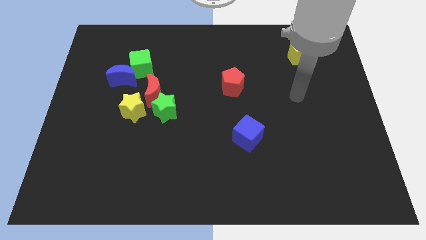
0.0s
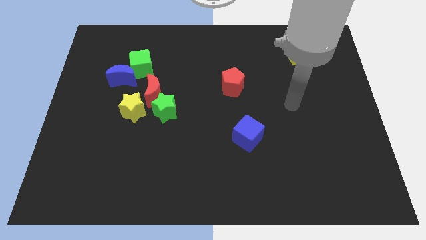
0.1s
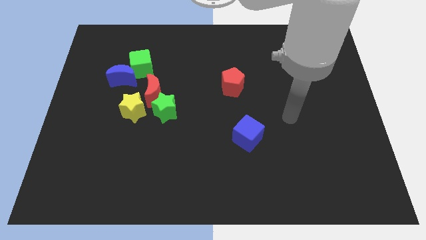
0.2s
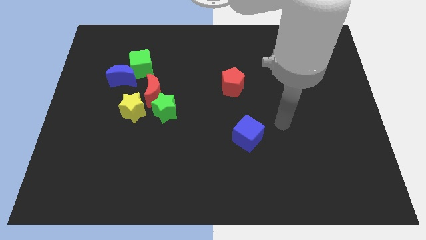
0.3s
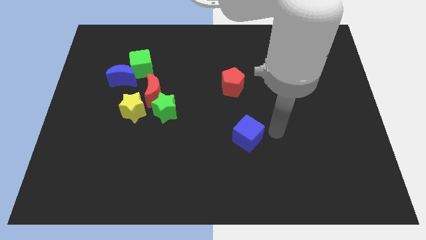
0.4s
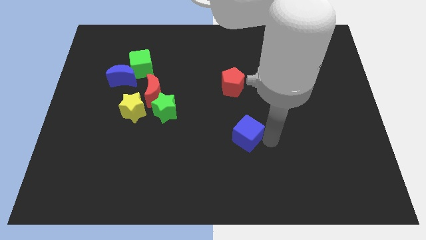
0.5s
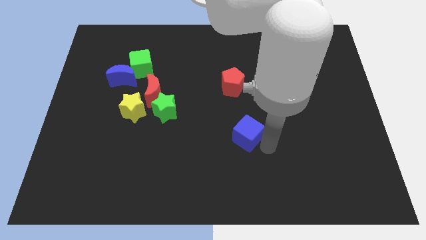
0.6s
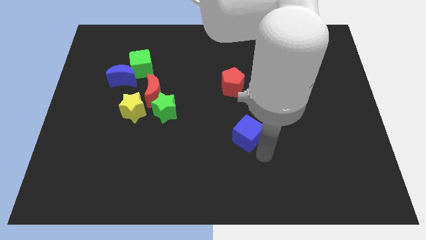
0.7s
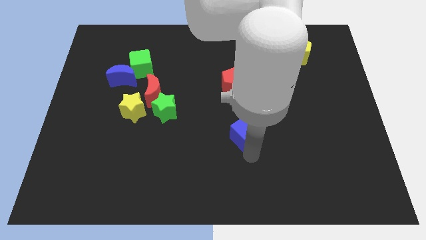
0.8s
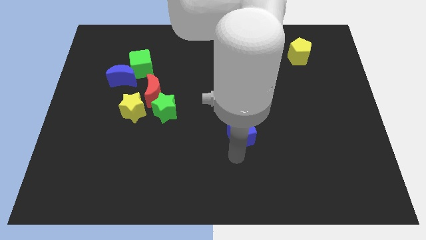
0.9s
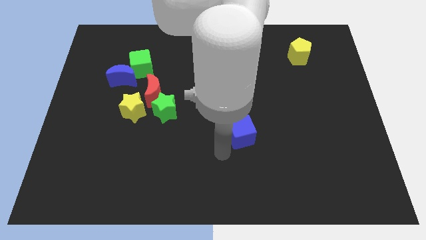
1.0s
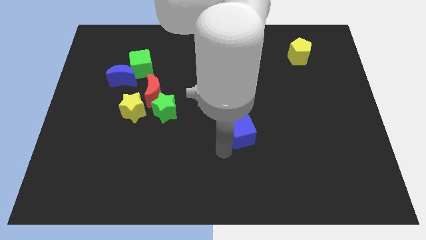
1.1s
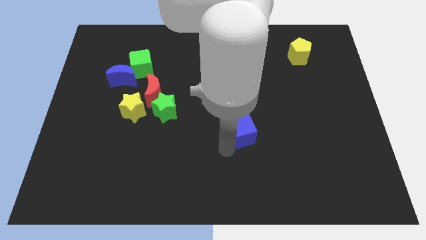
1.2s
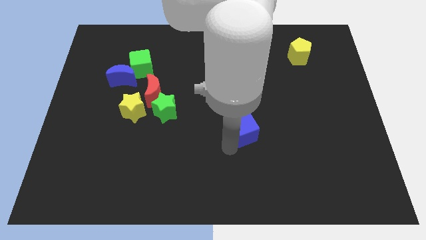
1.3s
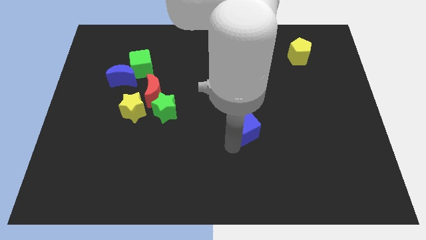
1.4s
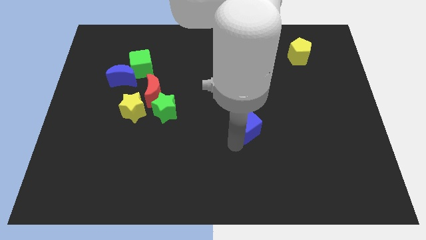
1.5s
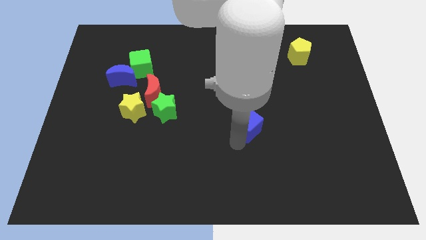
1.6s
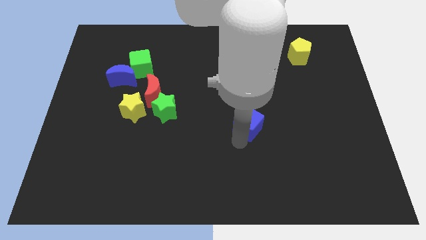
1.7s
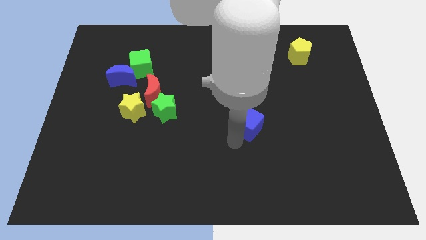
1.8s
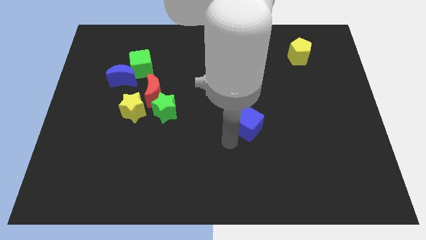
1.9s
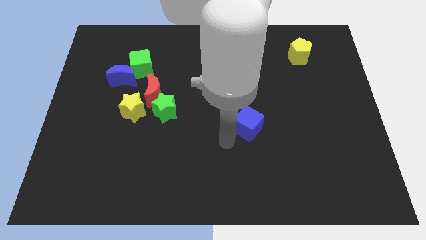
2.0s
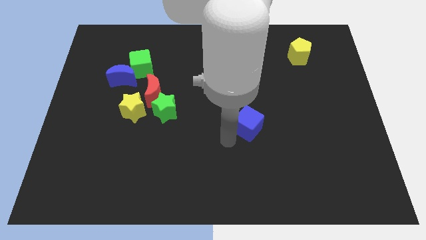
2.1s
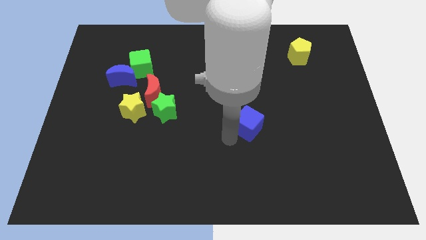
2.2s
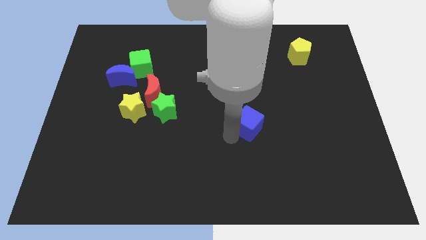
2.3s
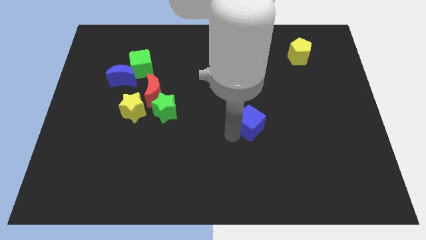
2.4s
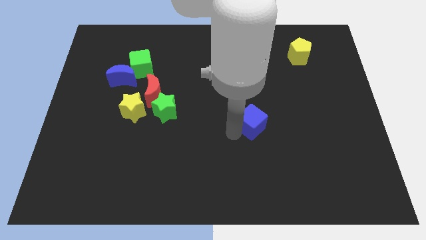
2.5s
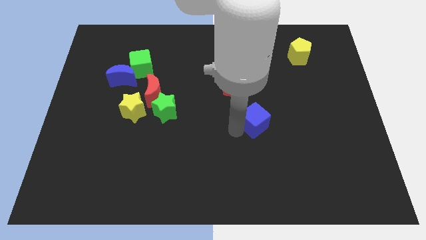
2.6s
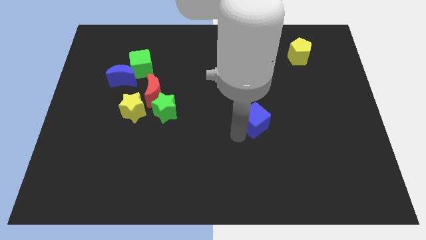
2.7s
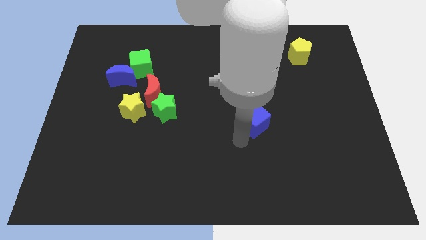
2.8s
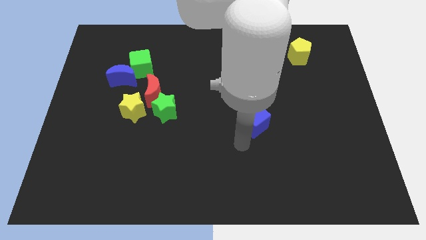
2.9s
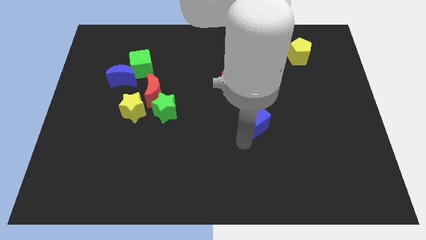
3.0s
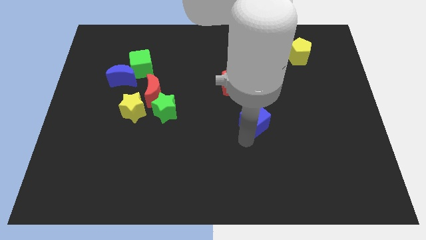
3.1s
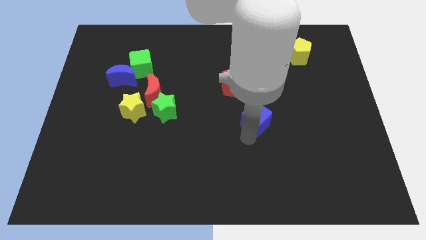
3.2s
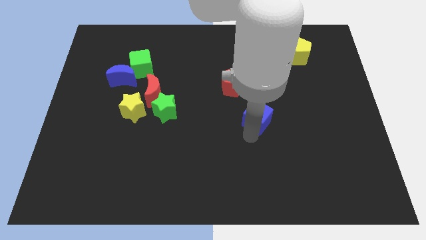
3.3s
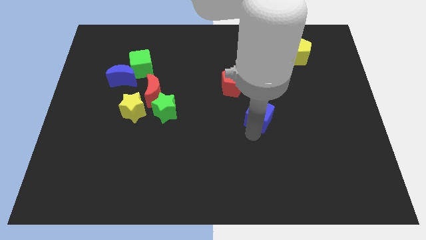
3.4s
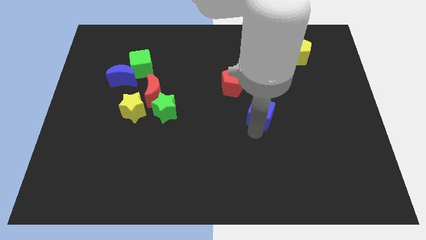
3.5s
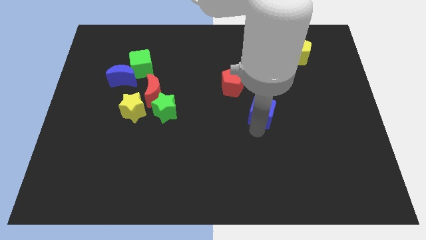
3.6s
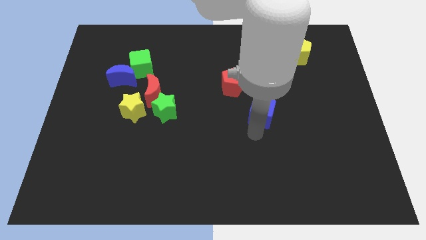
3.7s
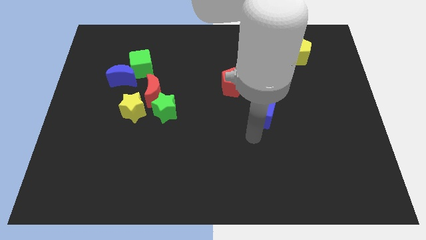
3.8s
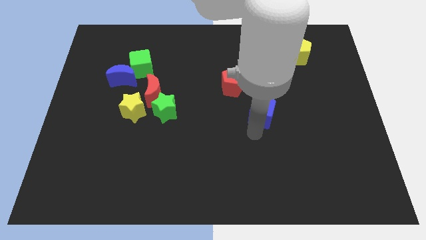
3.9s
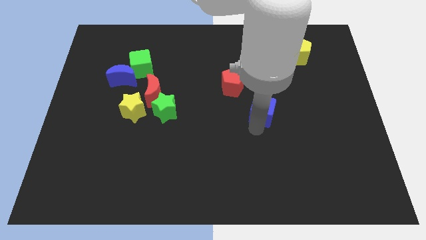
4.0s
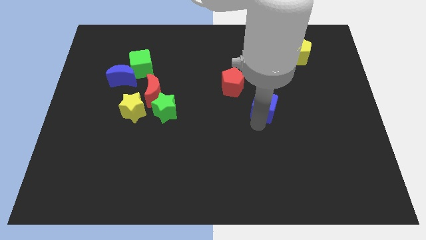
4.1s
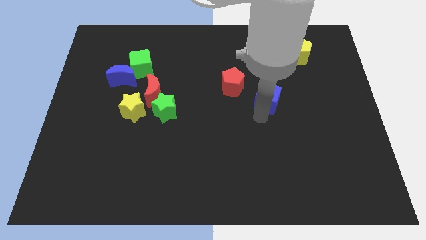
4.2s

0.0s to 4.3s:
push the blue cube to the right of the red pentagon

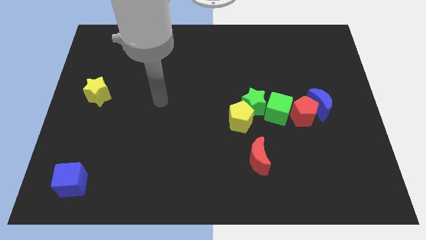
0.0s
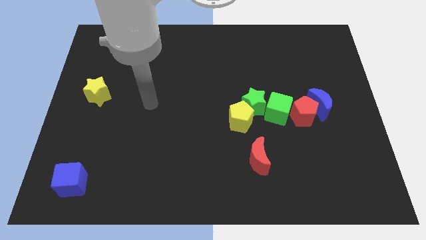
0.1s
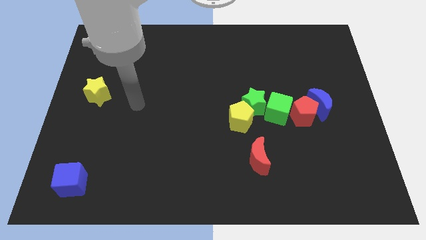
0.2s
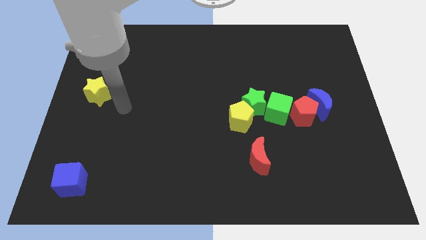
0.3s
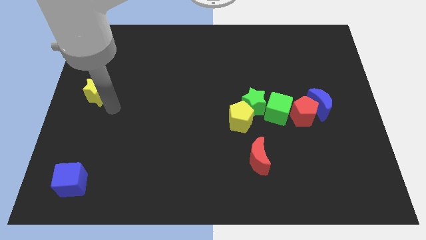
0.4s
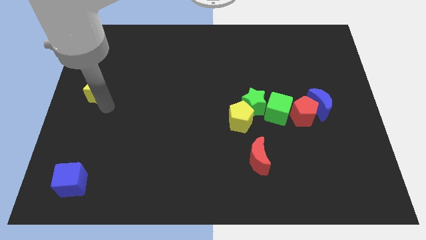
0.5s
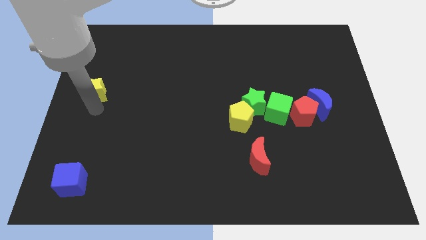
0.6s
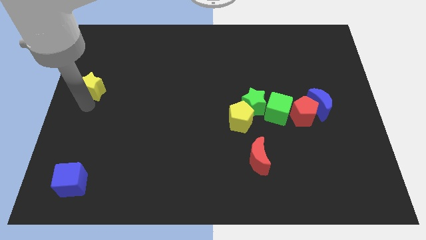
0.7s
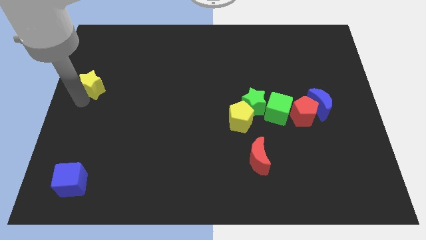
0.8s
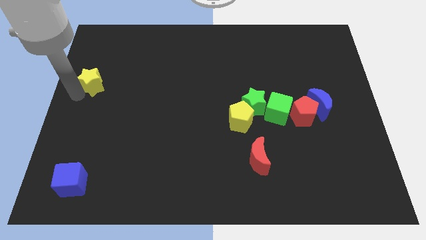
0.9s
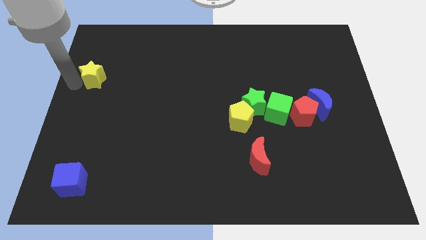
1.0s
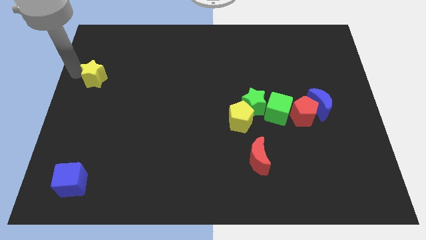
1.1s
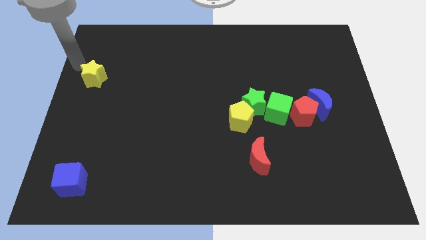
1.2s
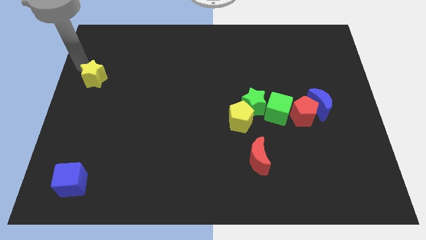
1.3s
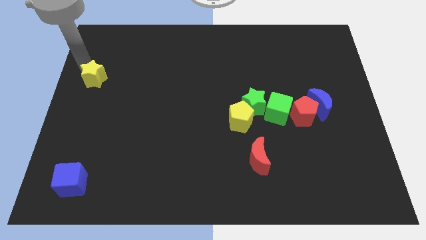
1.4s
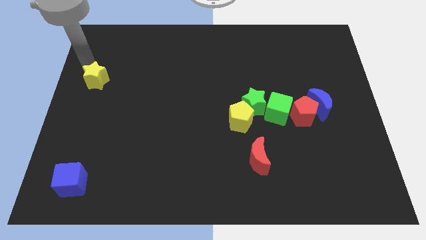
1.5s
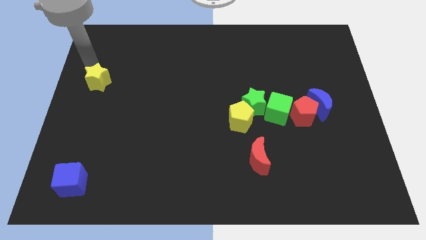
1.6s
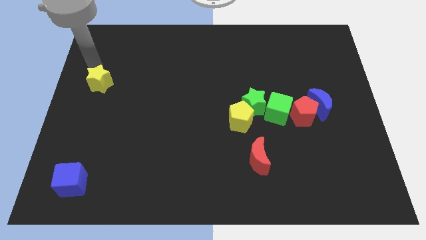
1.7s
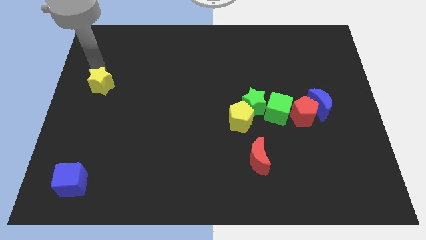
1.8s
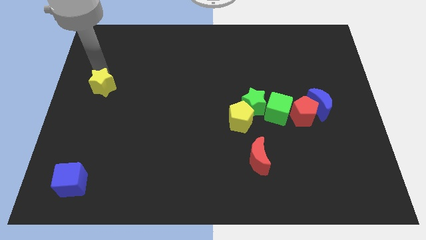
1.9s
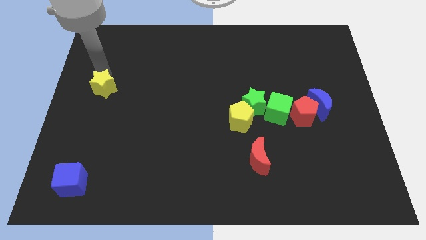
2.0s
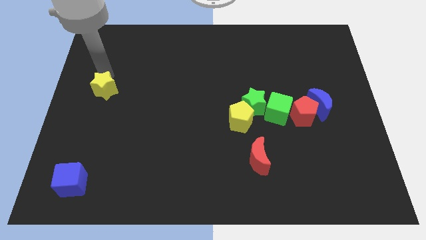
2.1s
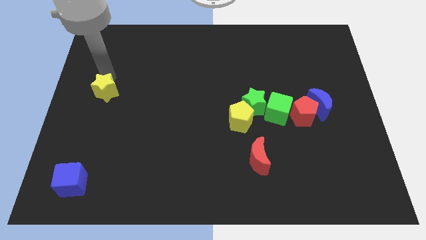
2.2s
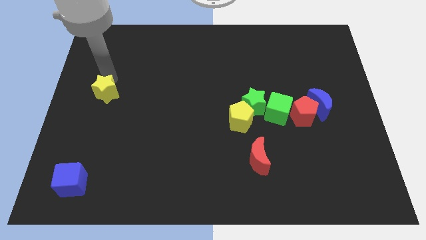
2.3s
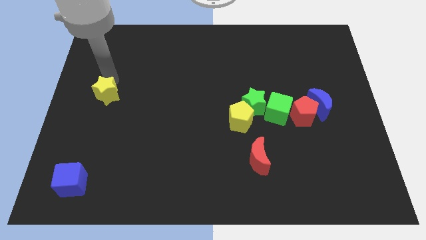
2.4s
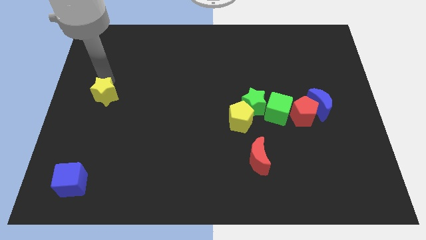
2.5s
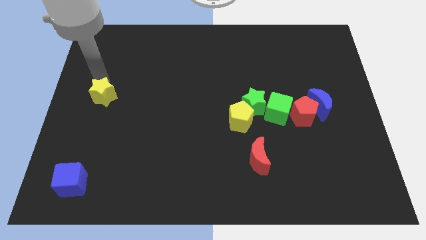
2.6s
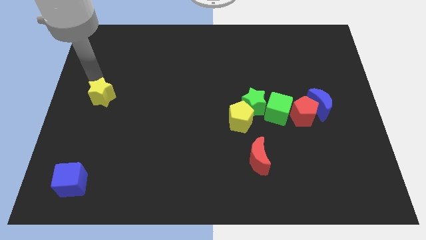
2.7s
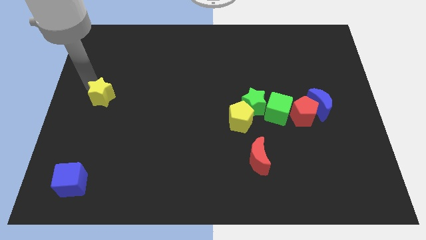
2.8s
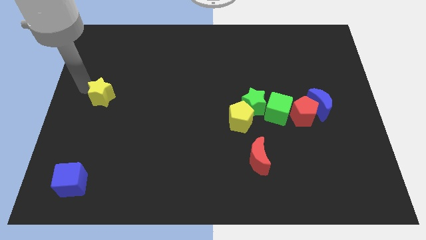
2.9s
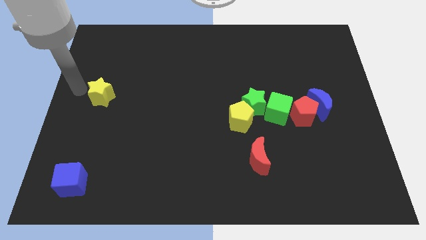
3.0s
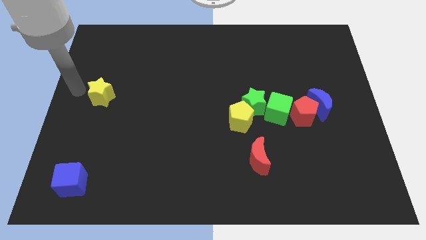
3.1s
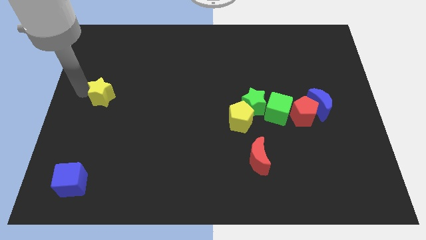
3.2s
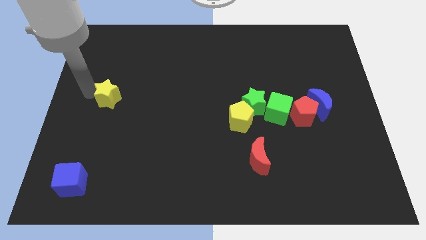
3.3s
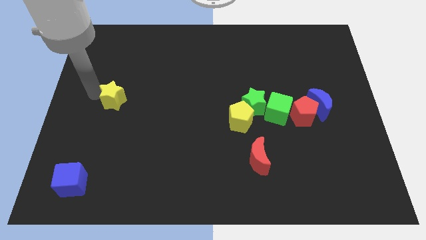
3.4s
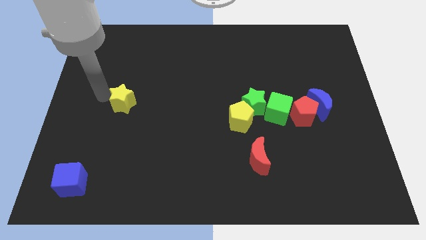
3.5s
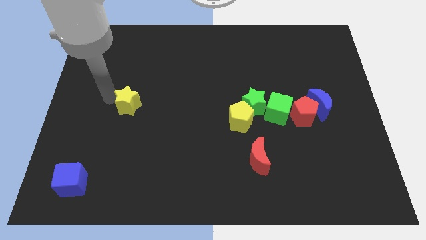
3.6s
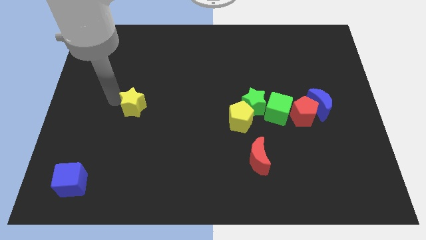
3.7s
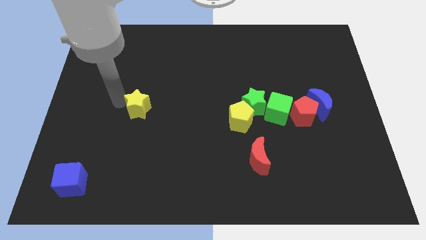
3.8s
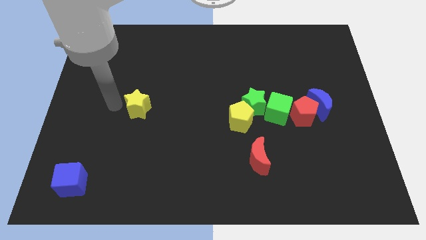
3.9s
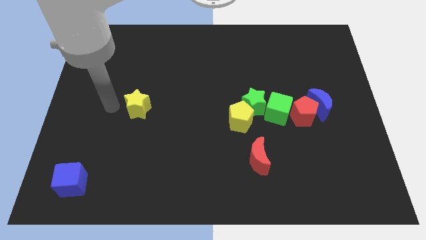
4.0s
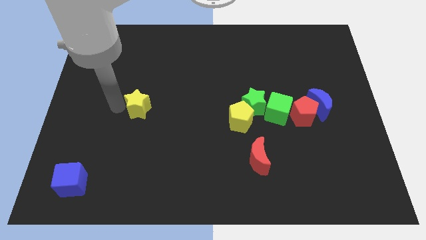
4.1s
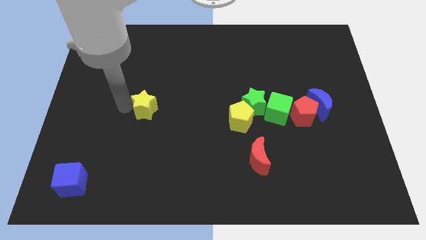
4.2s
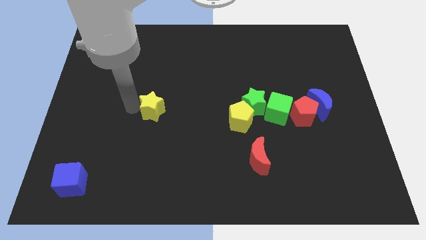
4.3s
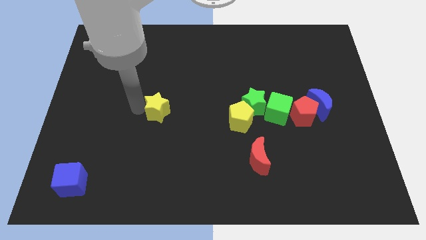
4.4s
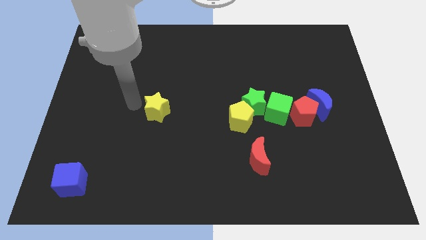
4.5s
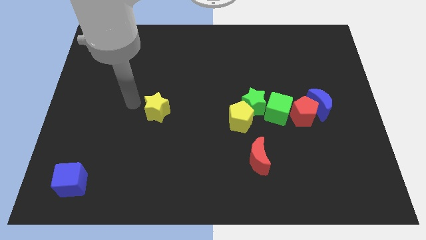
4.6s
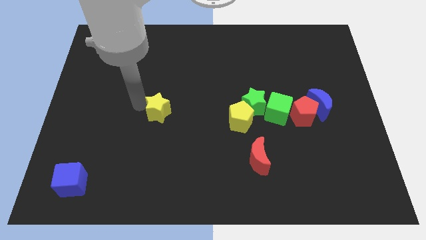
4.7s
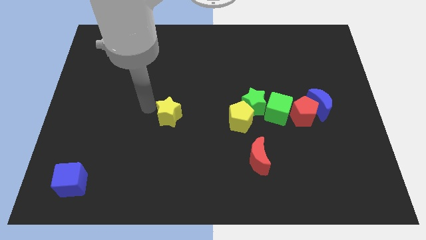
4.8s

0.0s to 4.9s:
put the yellow star to the left of the yellow pentagon
